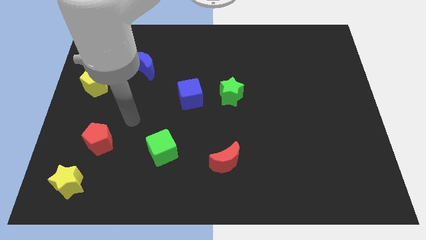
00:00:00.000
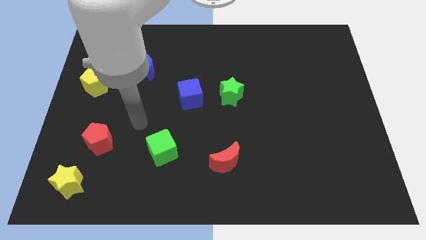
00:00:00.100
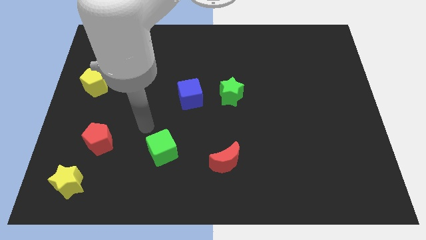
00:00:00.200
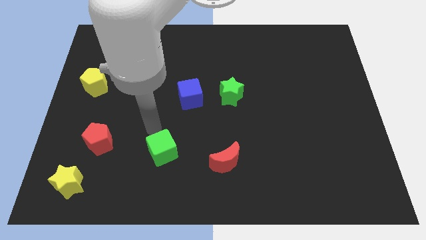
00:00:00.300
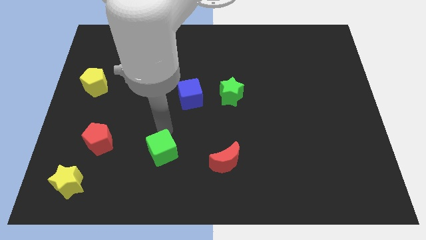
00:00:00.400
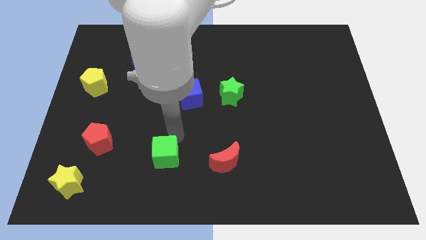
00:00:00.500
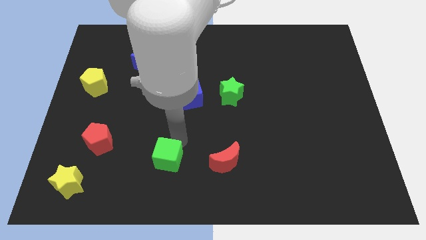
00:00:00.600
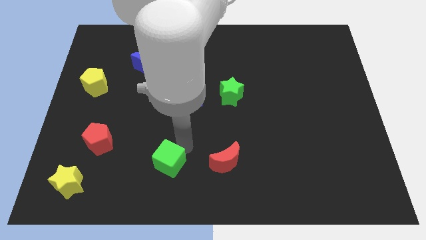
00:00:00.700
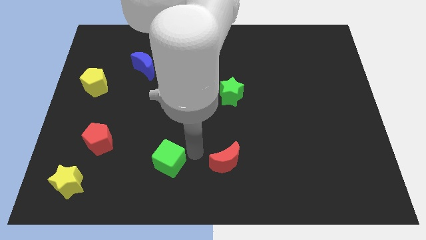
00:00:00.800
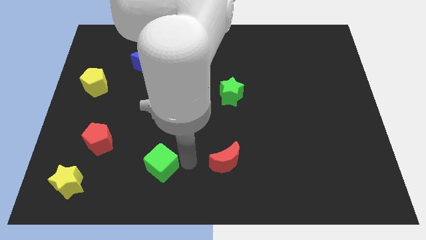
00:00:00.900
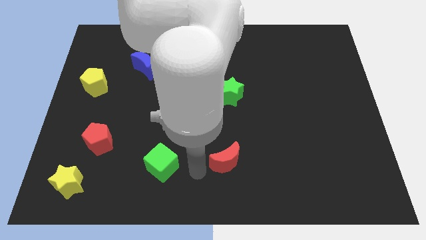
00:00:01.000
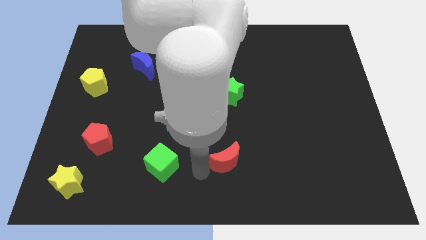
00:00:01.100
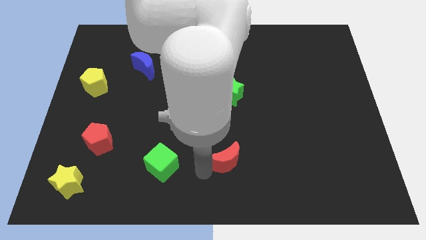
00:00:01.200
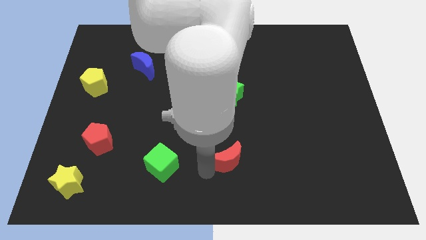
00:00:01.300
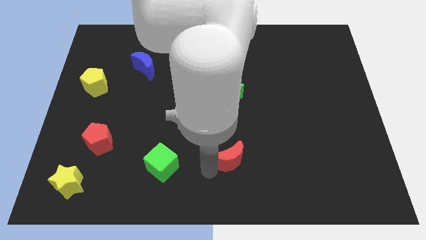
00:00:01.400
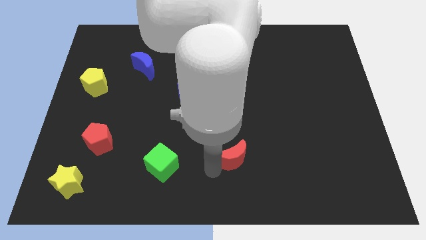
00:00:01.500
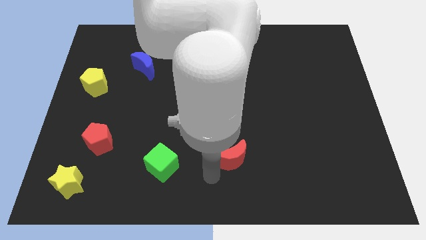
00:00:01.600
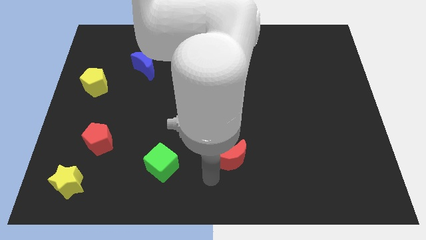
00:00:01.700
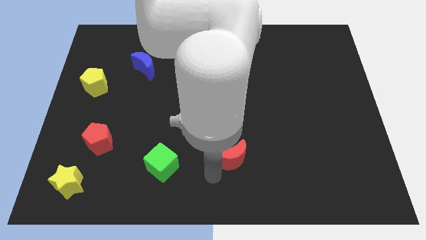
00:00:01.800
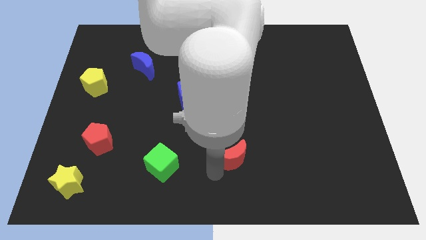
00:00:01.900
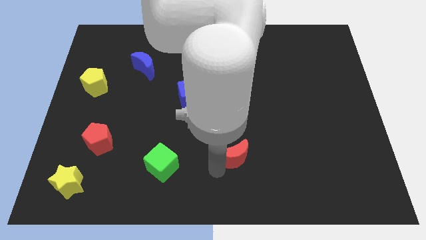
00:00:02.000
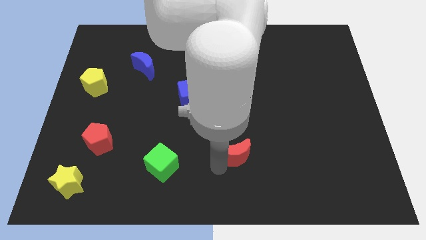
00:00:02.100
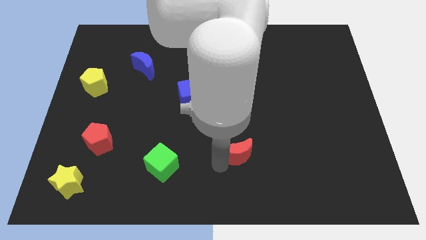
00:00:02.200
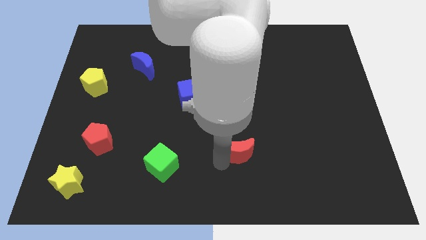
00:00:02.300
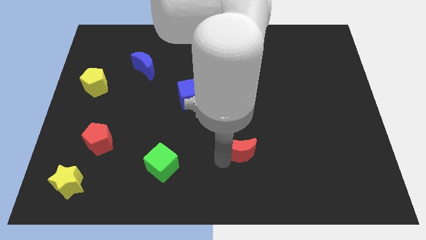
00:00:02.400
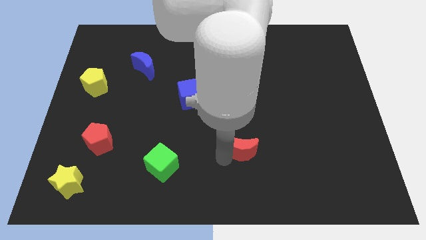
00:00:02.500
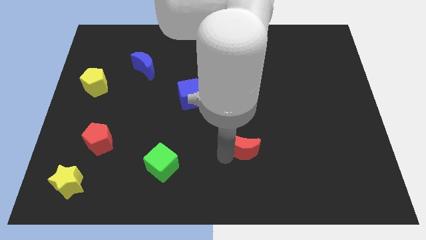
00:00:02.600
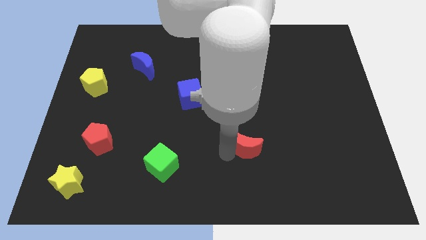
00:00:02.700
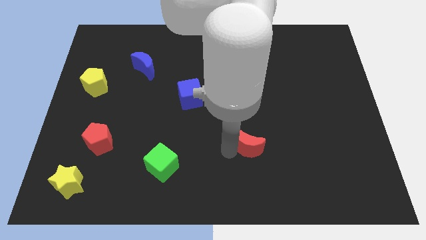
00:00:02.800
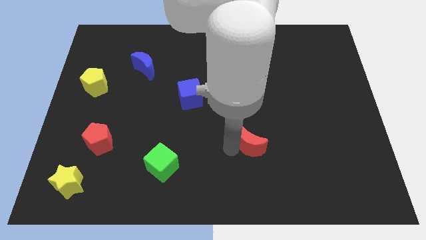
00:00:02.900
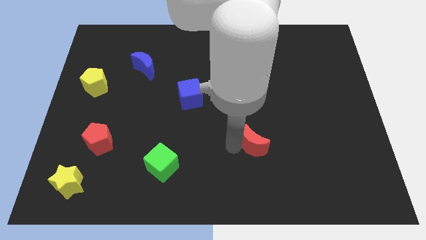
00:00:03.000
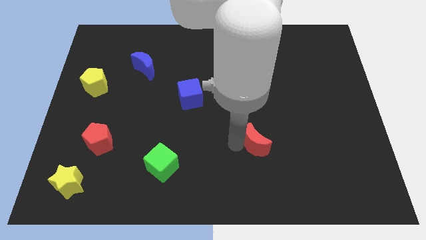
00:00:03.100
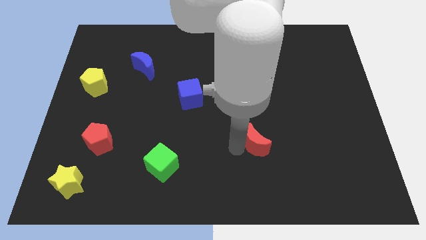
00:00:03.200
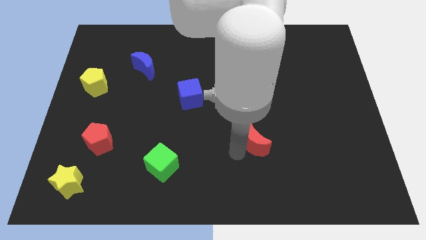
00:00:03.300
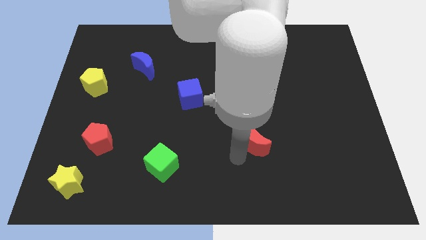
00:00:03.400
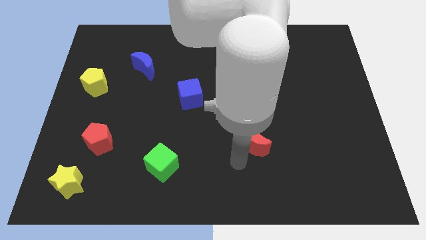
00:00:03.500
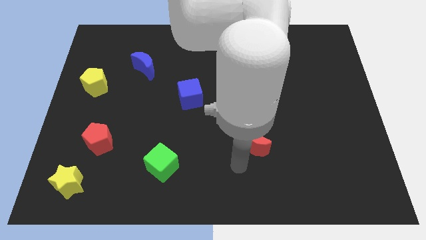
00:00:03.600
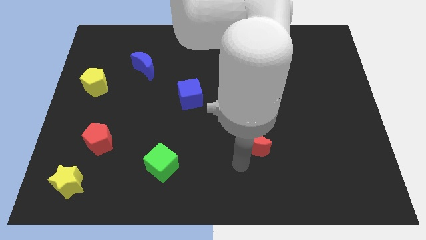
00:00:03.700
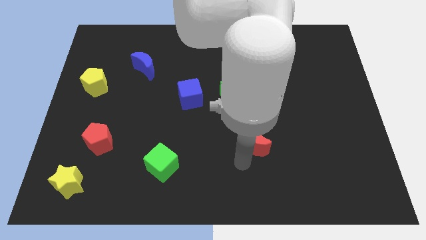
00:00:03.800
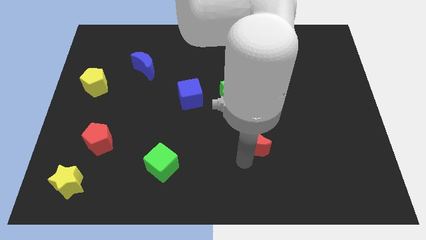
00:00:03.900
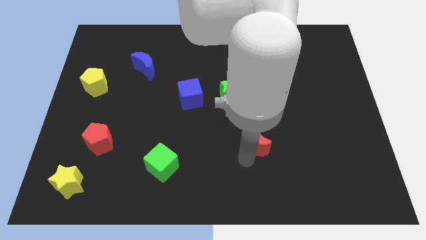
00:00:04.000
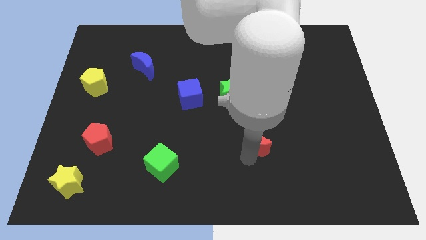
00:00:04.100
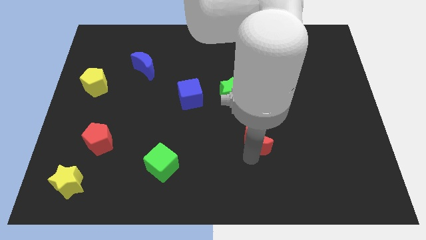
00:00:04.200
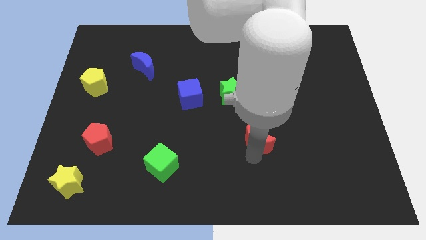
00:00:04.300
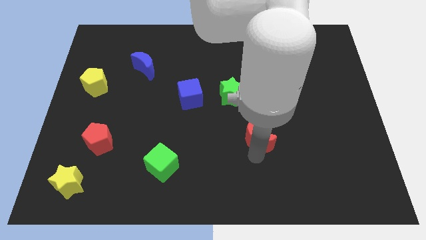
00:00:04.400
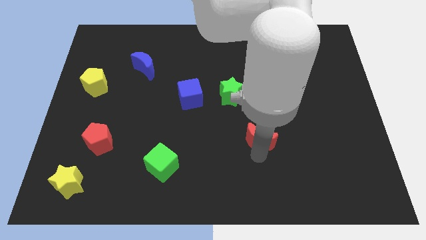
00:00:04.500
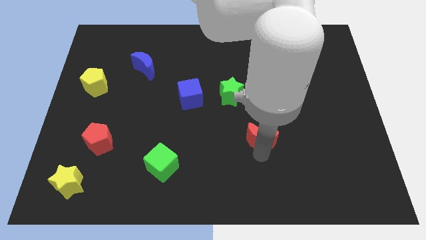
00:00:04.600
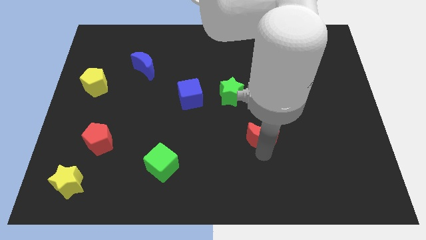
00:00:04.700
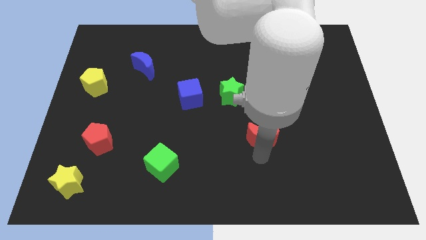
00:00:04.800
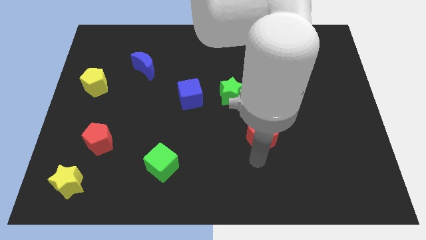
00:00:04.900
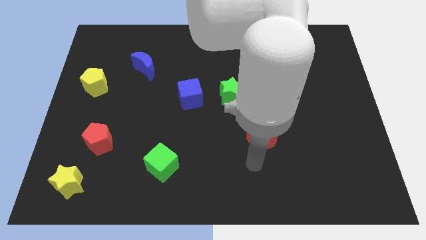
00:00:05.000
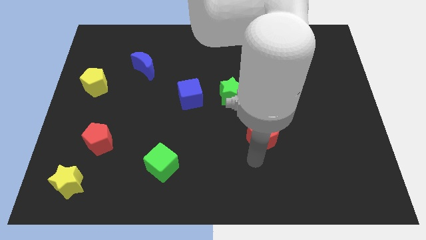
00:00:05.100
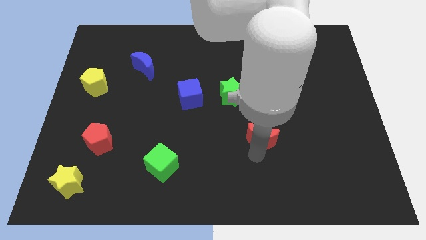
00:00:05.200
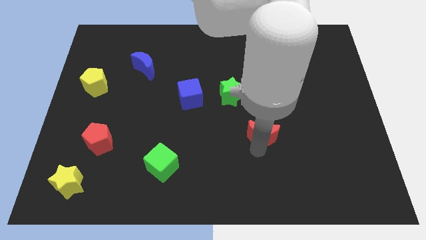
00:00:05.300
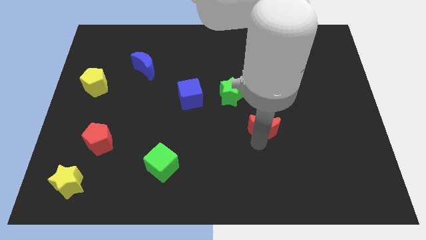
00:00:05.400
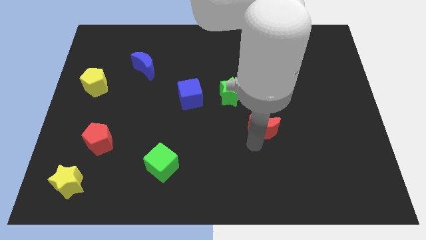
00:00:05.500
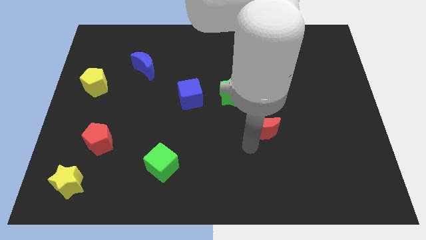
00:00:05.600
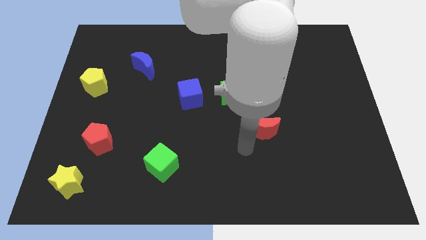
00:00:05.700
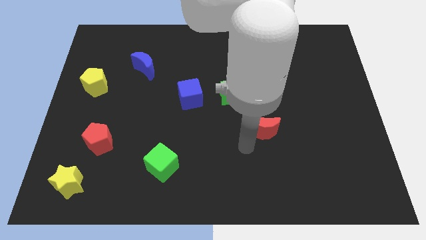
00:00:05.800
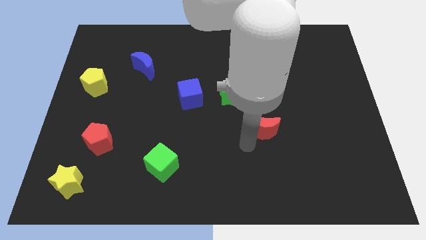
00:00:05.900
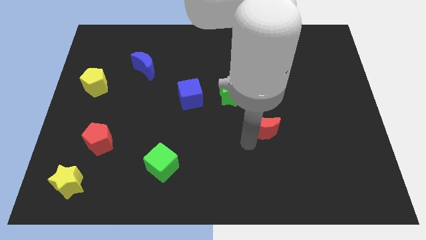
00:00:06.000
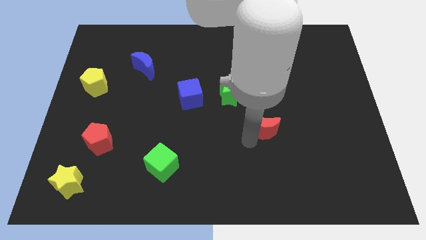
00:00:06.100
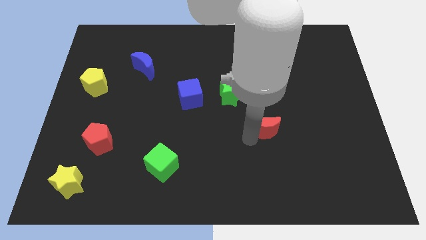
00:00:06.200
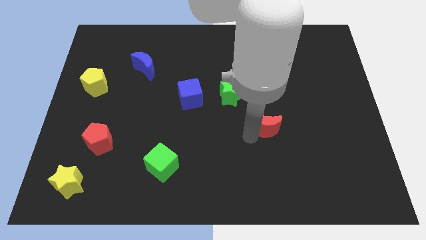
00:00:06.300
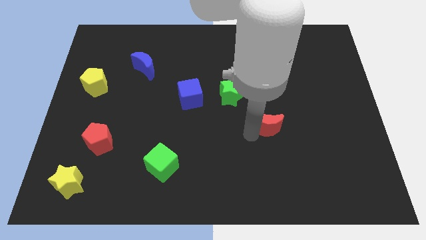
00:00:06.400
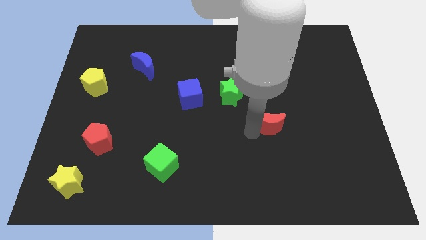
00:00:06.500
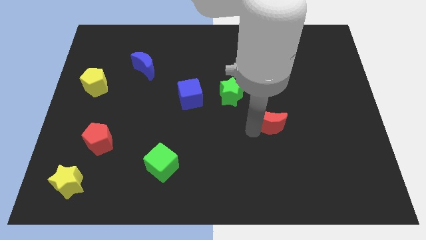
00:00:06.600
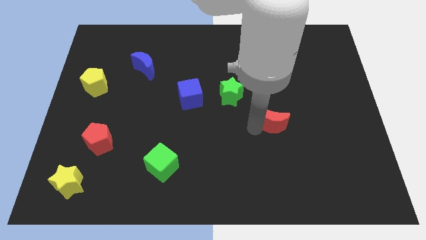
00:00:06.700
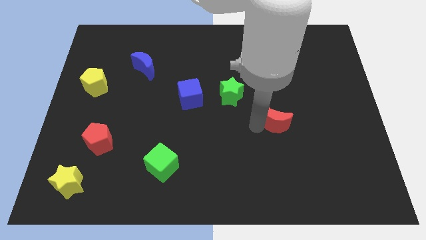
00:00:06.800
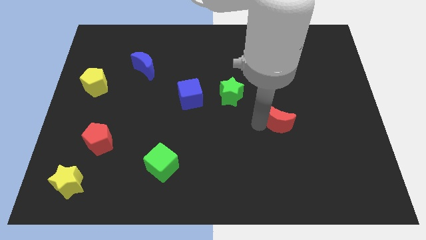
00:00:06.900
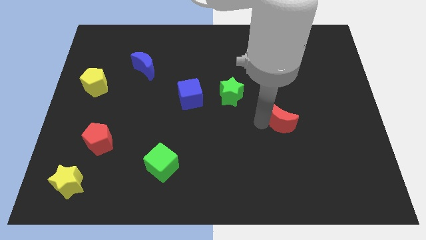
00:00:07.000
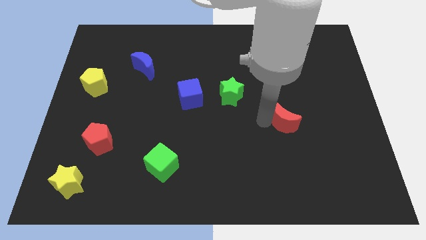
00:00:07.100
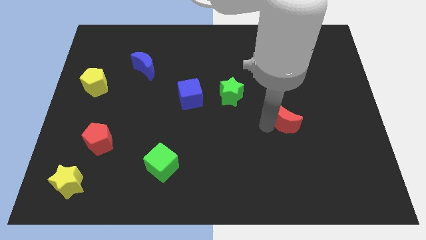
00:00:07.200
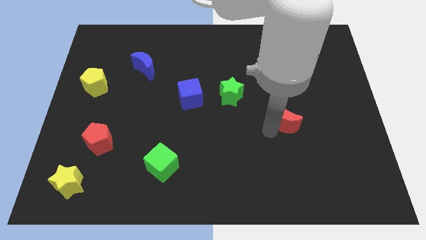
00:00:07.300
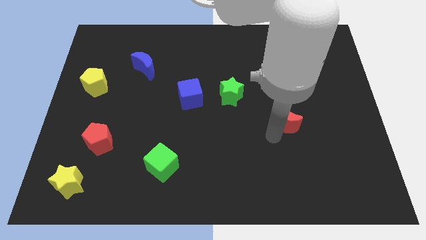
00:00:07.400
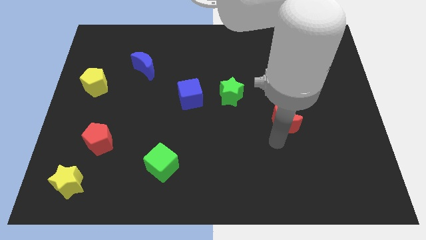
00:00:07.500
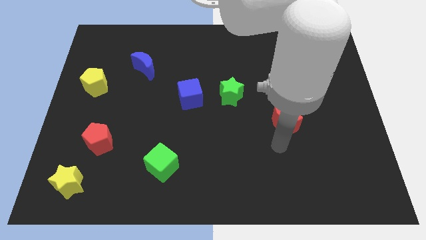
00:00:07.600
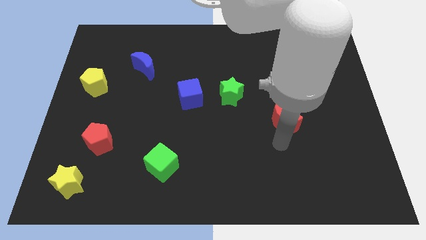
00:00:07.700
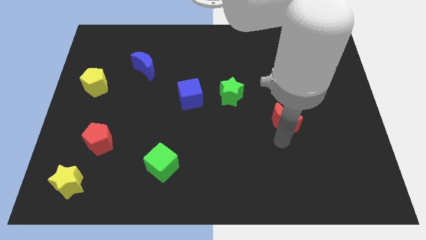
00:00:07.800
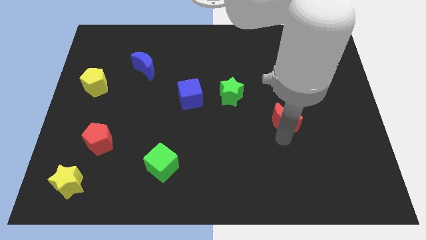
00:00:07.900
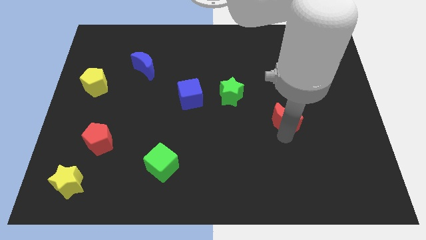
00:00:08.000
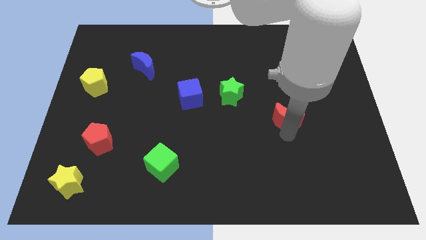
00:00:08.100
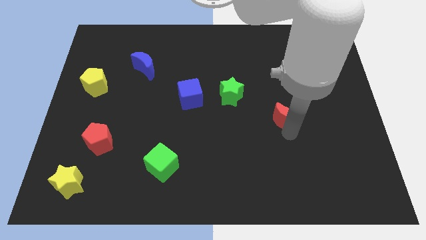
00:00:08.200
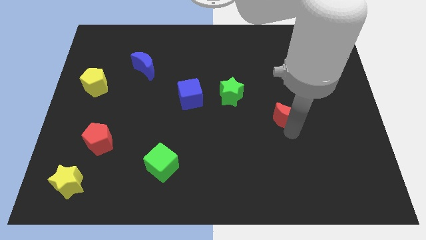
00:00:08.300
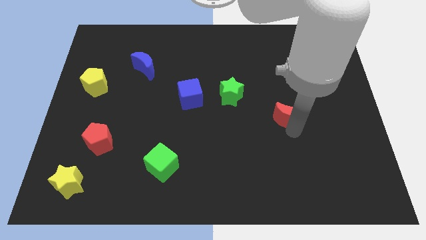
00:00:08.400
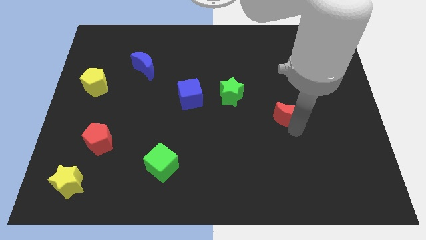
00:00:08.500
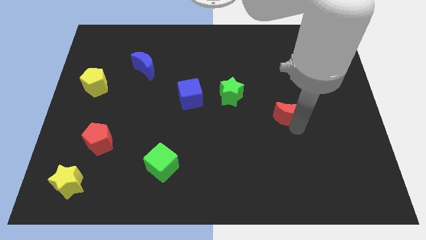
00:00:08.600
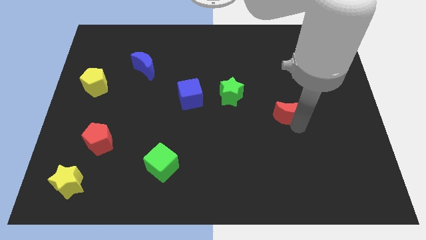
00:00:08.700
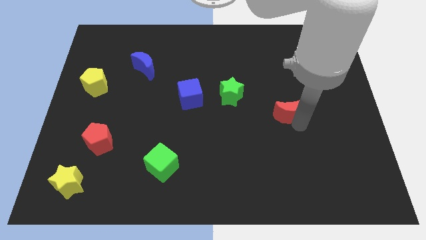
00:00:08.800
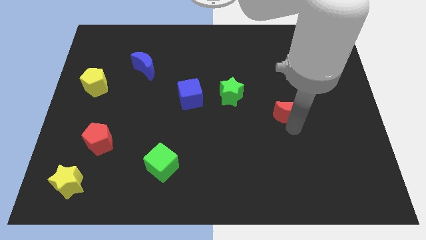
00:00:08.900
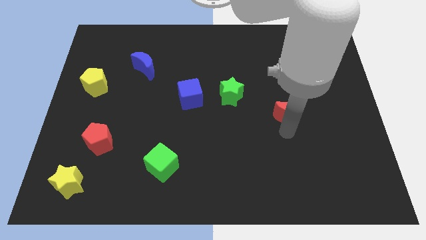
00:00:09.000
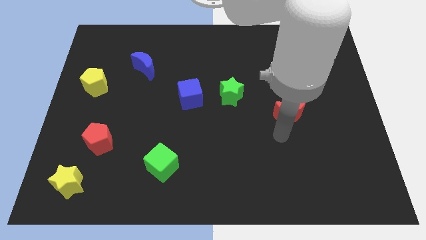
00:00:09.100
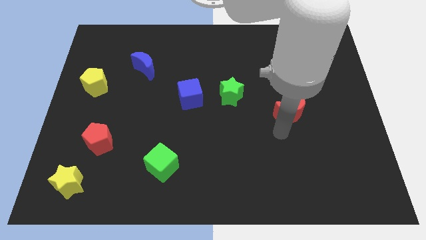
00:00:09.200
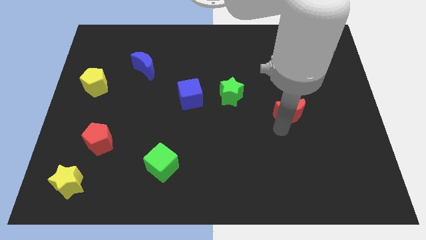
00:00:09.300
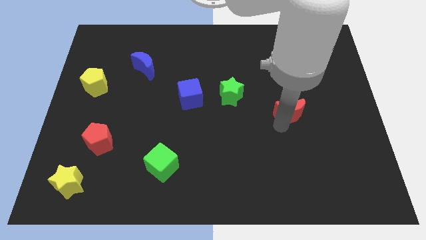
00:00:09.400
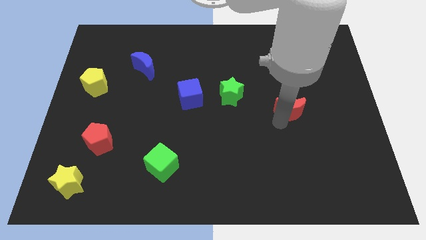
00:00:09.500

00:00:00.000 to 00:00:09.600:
move the red moon diagonally up and right
